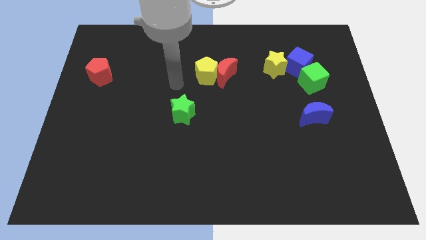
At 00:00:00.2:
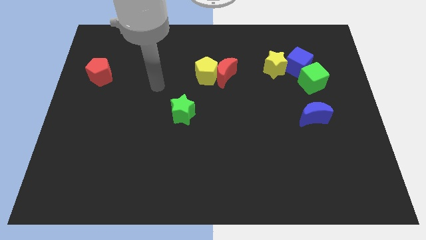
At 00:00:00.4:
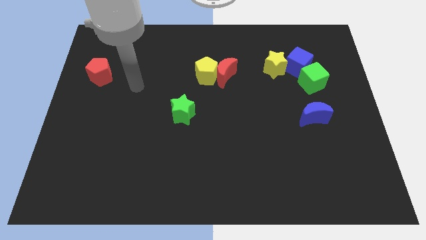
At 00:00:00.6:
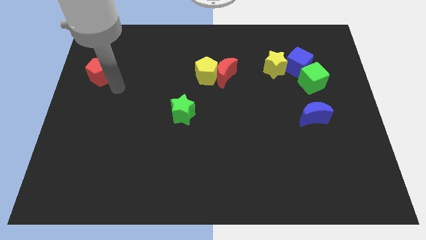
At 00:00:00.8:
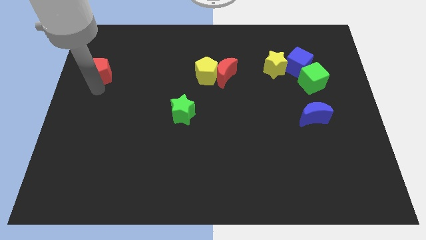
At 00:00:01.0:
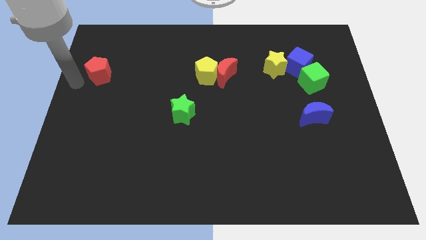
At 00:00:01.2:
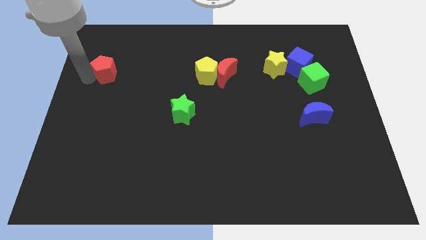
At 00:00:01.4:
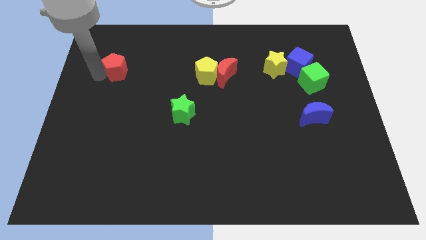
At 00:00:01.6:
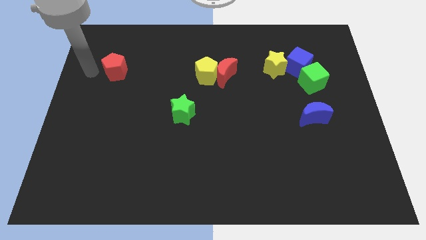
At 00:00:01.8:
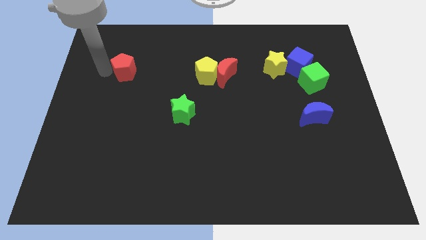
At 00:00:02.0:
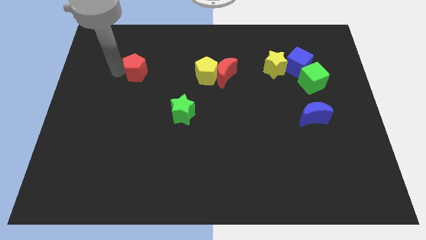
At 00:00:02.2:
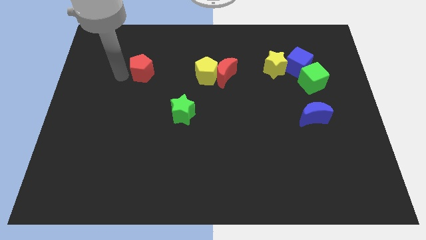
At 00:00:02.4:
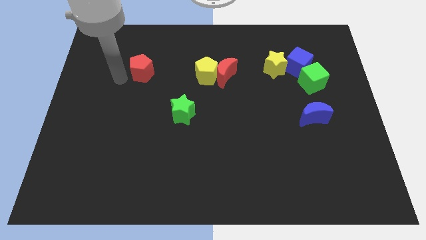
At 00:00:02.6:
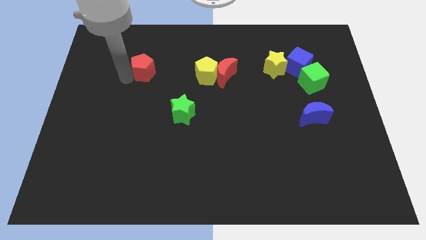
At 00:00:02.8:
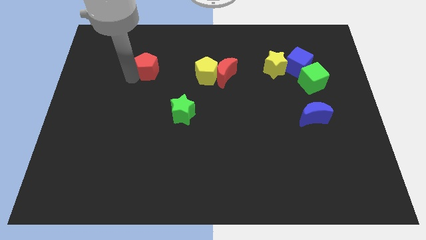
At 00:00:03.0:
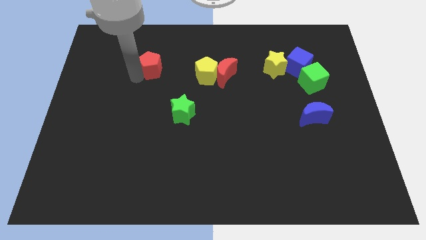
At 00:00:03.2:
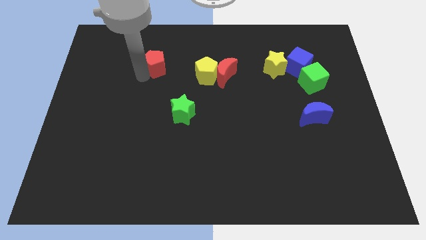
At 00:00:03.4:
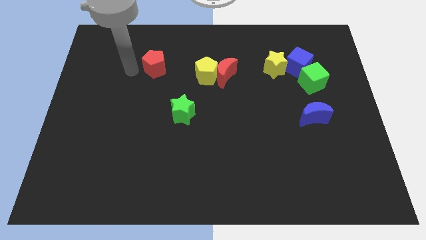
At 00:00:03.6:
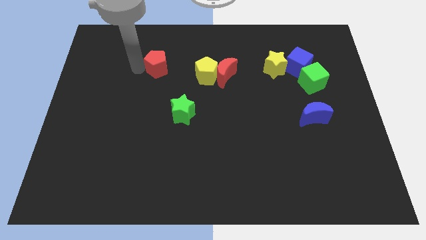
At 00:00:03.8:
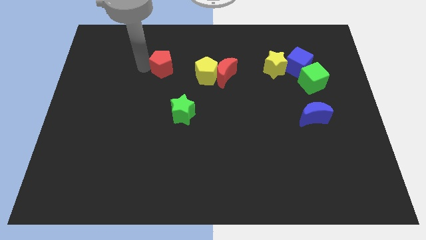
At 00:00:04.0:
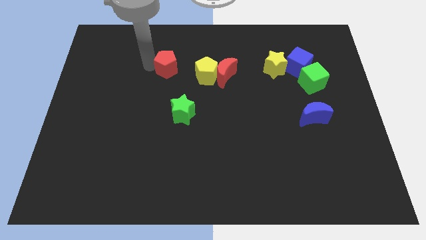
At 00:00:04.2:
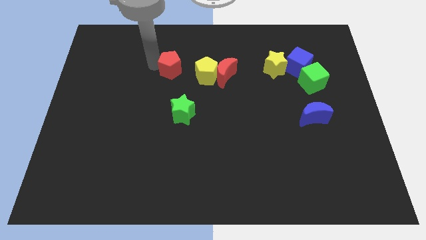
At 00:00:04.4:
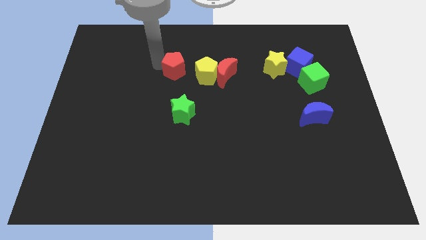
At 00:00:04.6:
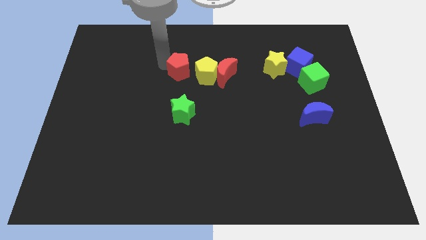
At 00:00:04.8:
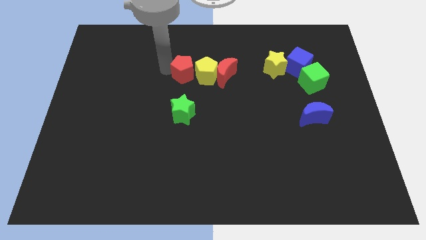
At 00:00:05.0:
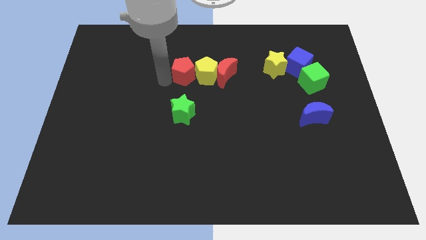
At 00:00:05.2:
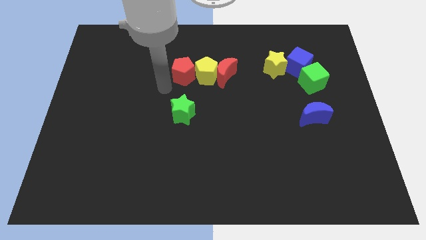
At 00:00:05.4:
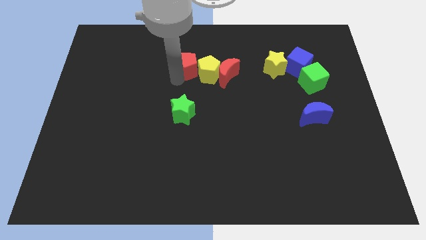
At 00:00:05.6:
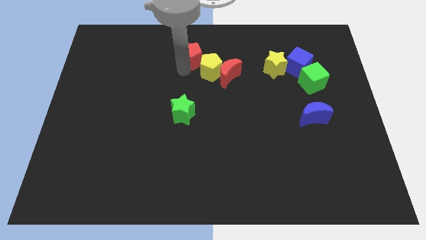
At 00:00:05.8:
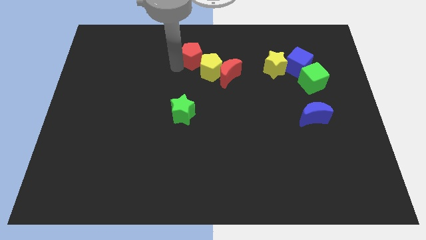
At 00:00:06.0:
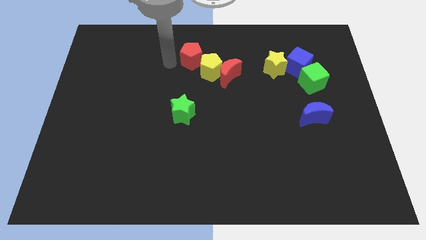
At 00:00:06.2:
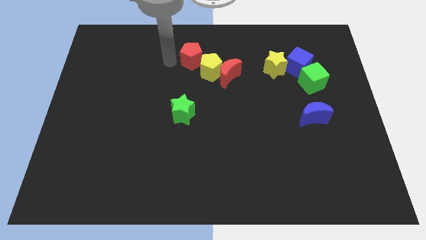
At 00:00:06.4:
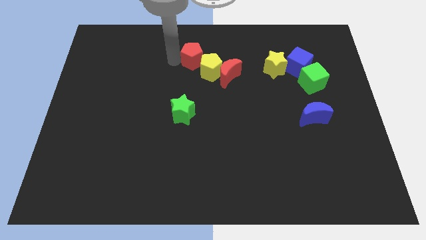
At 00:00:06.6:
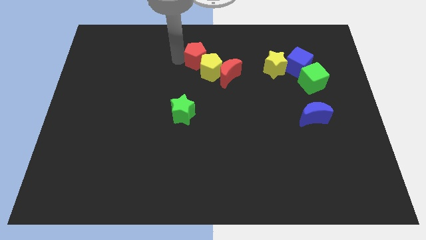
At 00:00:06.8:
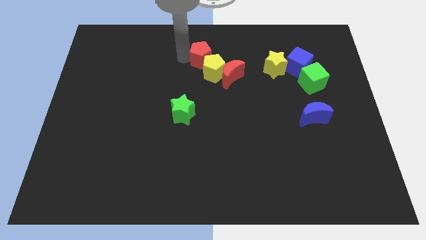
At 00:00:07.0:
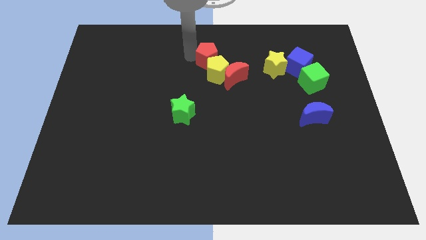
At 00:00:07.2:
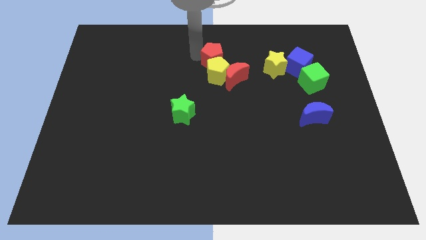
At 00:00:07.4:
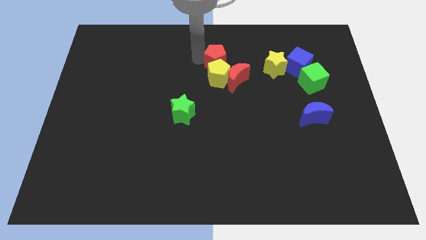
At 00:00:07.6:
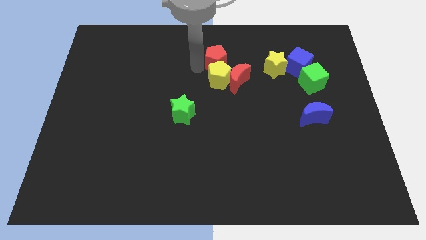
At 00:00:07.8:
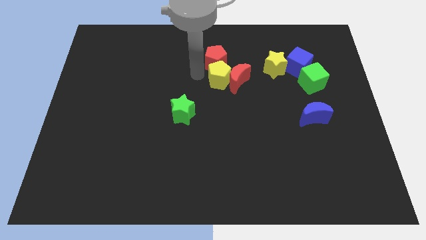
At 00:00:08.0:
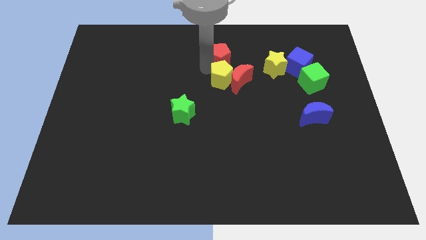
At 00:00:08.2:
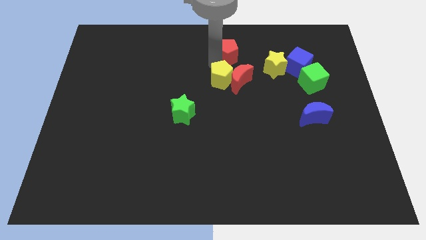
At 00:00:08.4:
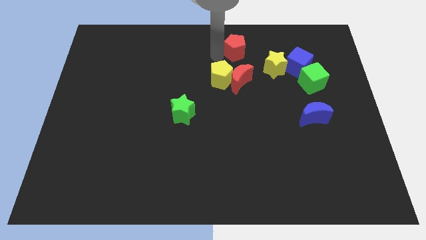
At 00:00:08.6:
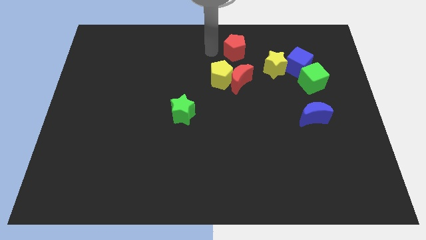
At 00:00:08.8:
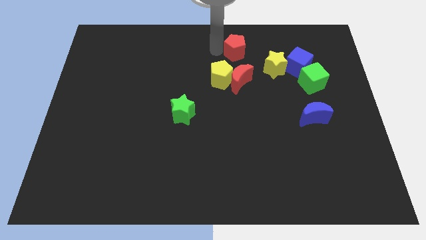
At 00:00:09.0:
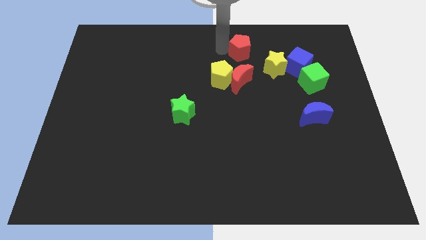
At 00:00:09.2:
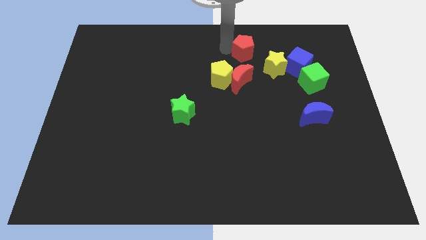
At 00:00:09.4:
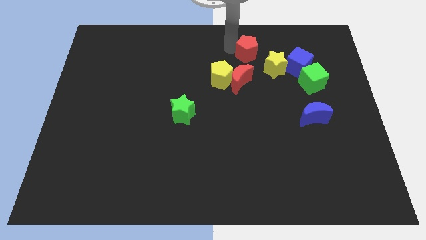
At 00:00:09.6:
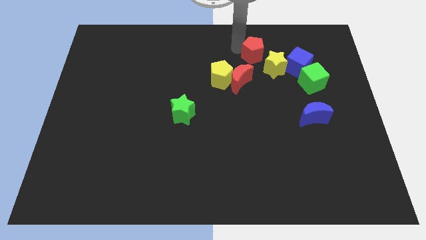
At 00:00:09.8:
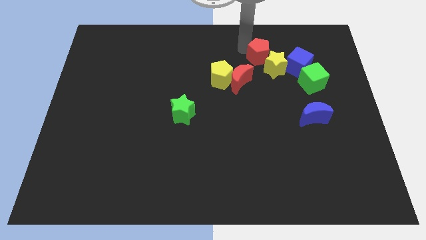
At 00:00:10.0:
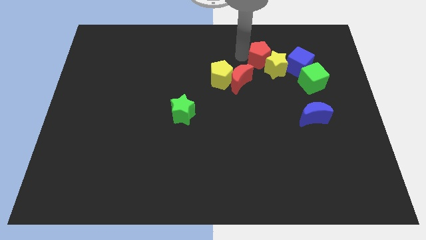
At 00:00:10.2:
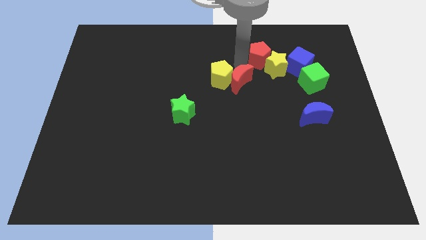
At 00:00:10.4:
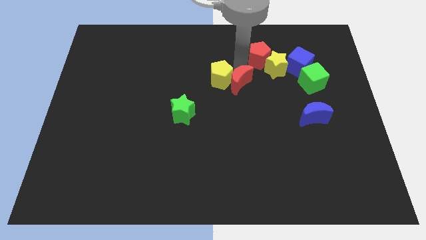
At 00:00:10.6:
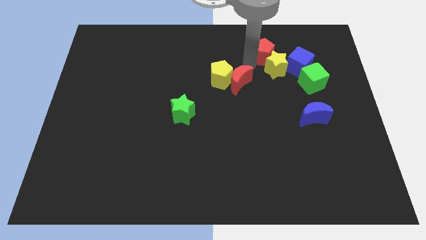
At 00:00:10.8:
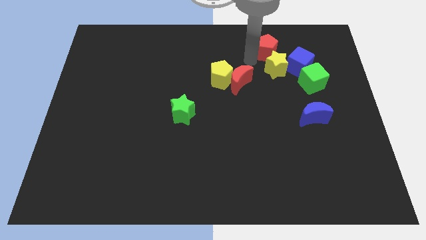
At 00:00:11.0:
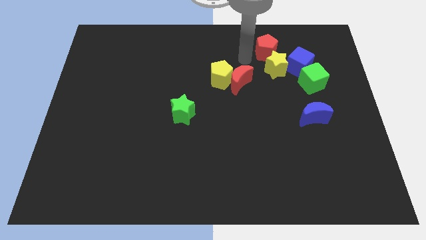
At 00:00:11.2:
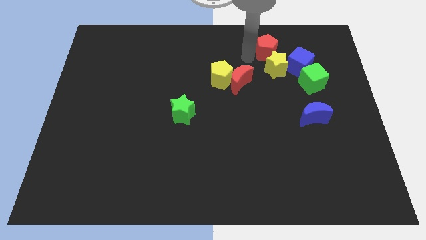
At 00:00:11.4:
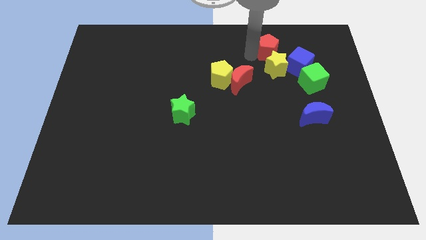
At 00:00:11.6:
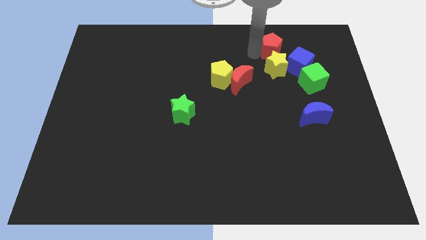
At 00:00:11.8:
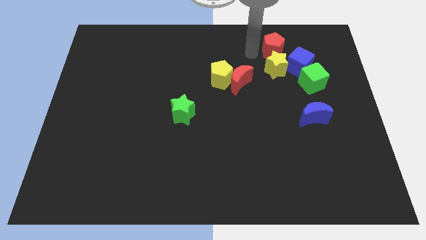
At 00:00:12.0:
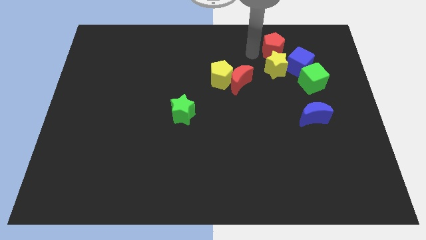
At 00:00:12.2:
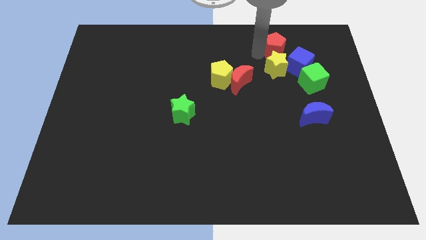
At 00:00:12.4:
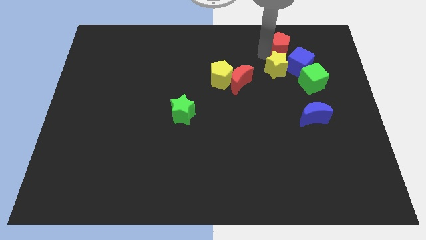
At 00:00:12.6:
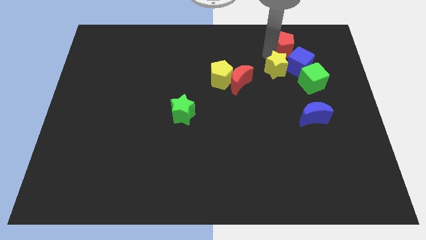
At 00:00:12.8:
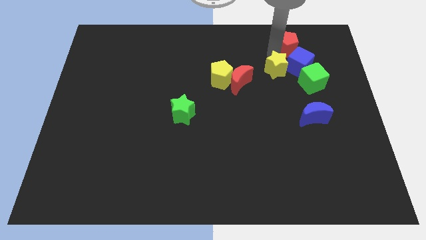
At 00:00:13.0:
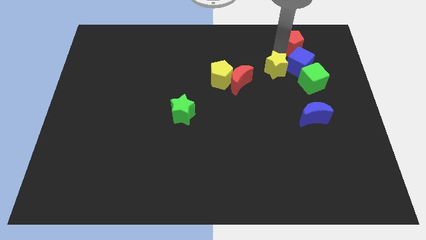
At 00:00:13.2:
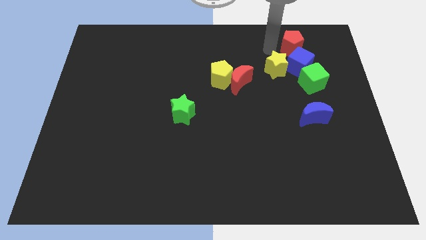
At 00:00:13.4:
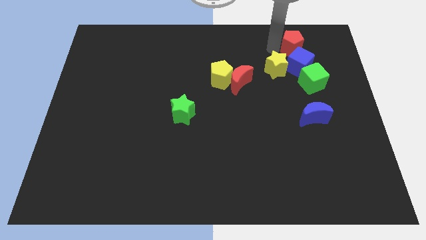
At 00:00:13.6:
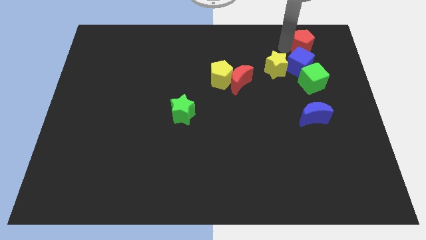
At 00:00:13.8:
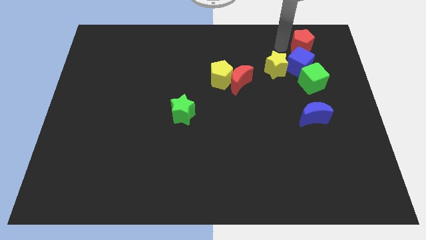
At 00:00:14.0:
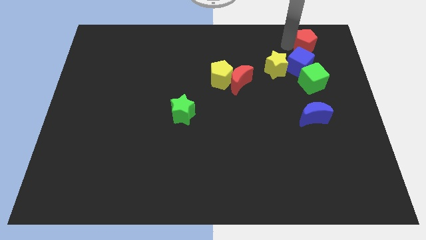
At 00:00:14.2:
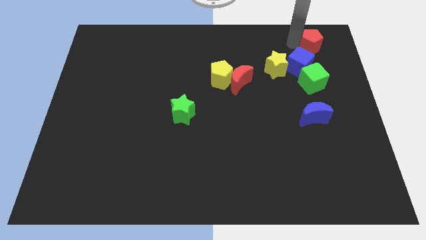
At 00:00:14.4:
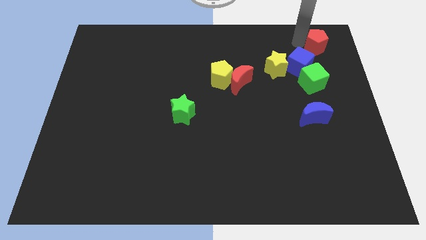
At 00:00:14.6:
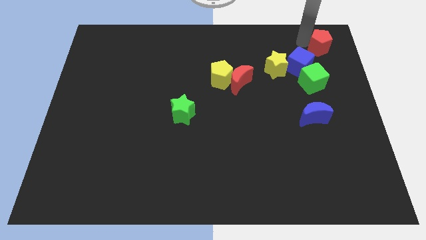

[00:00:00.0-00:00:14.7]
move the red pentagon to the top right
